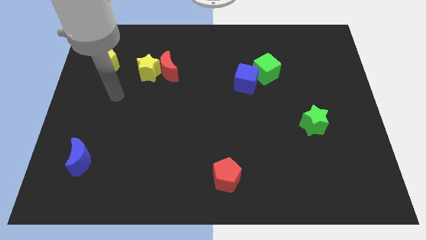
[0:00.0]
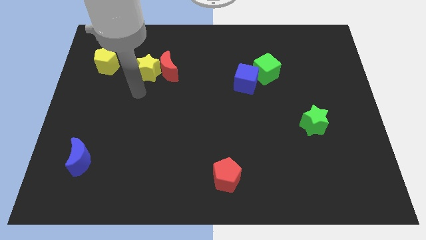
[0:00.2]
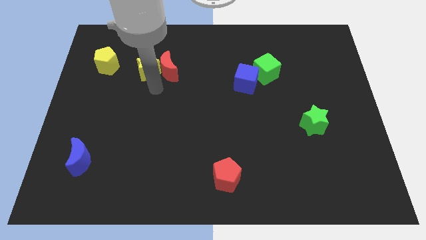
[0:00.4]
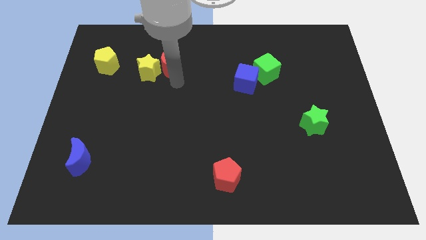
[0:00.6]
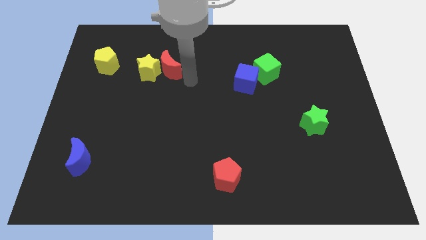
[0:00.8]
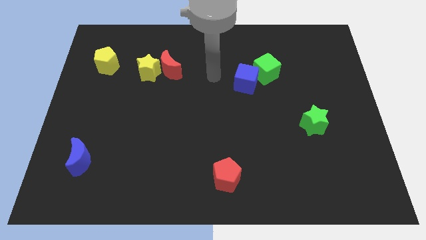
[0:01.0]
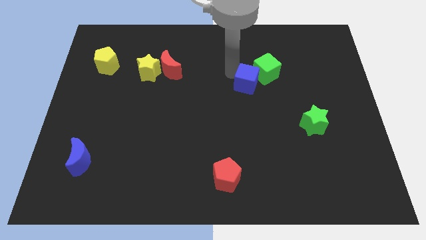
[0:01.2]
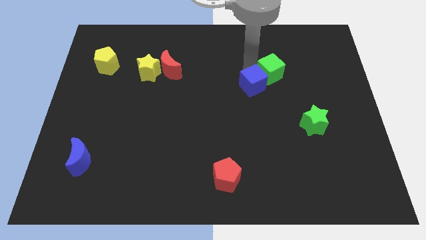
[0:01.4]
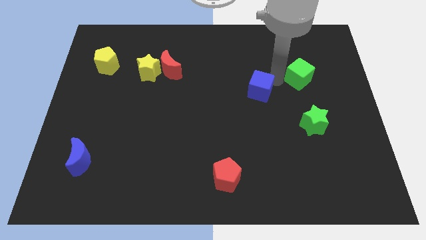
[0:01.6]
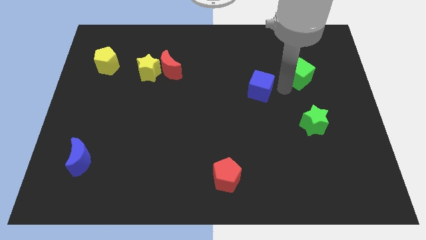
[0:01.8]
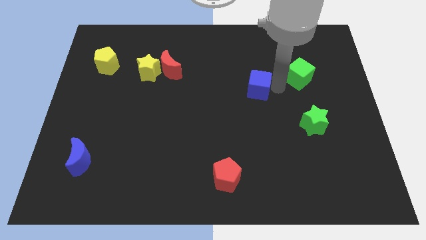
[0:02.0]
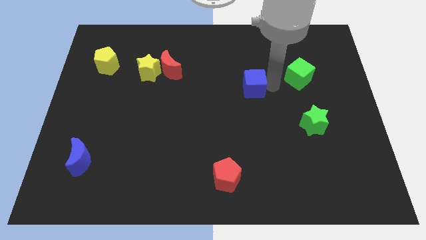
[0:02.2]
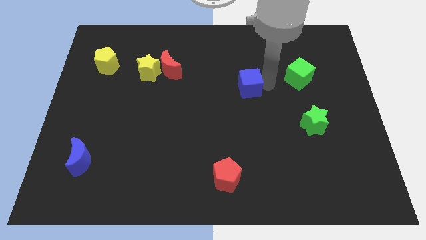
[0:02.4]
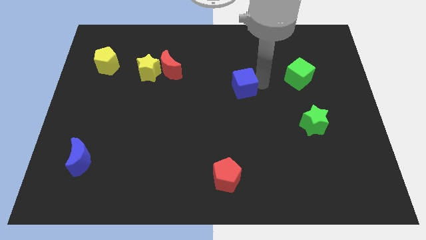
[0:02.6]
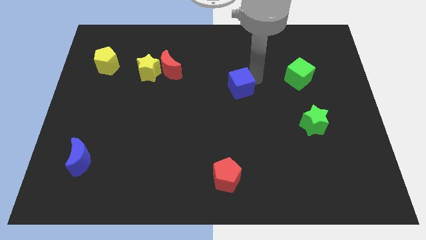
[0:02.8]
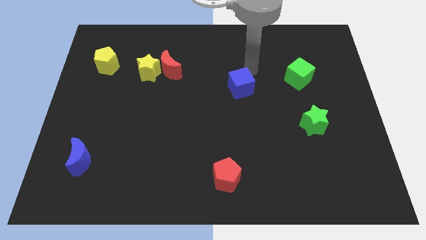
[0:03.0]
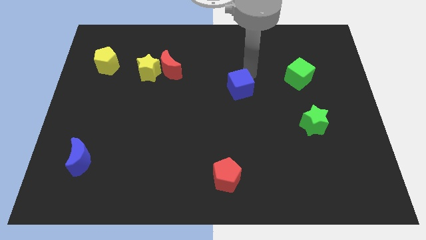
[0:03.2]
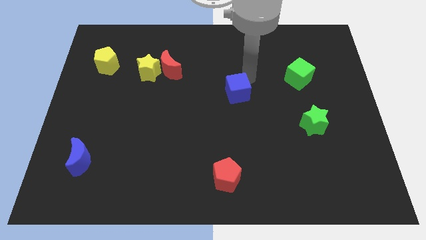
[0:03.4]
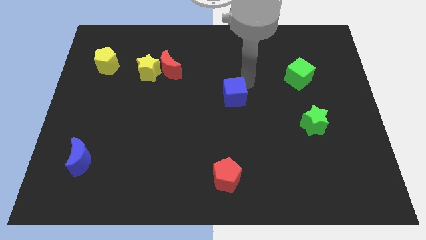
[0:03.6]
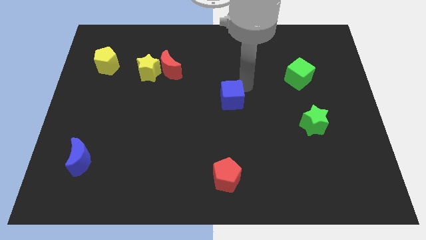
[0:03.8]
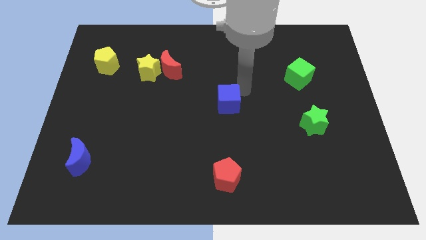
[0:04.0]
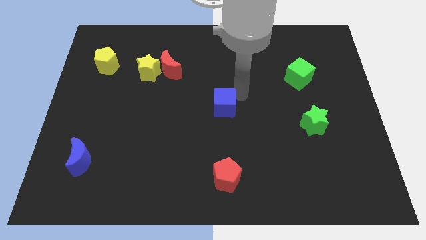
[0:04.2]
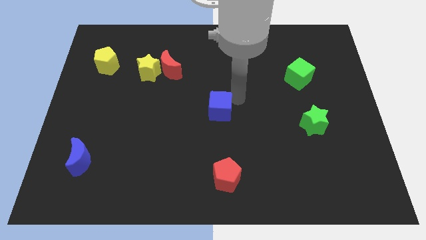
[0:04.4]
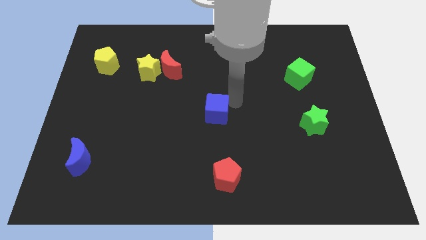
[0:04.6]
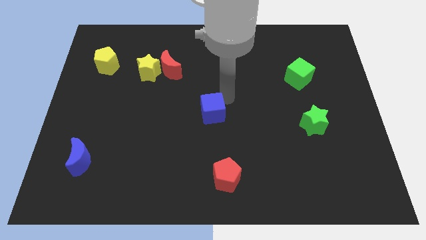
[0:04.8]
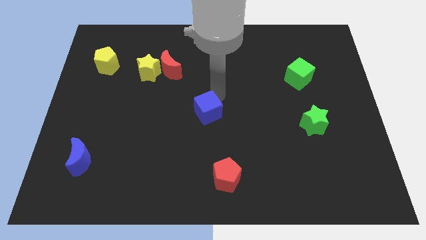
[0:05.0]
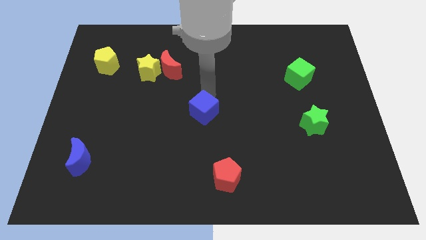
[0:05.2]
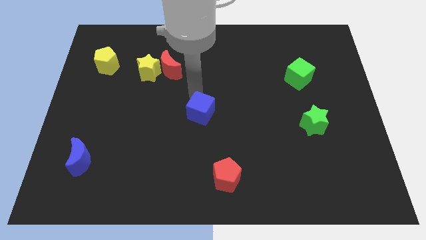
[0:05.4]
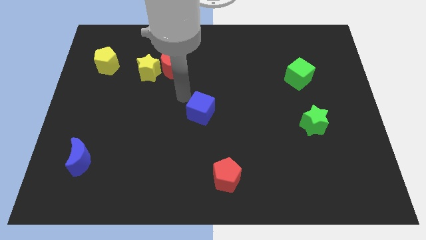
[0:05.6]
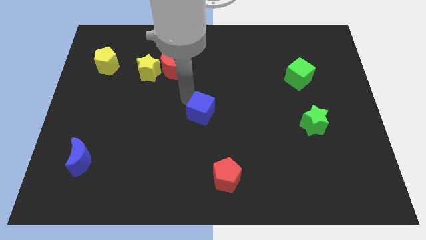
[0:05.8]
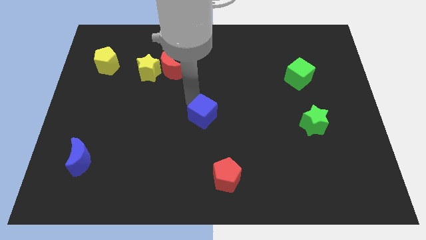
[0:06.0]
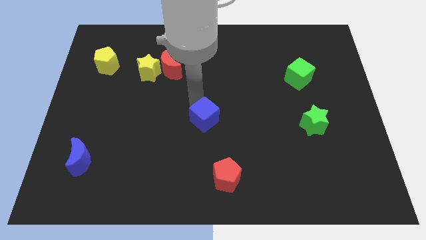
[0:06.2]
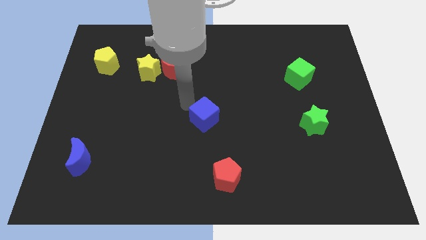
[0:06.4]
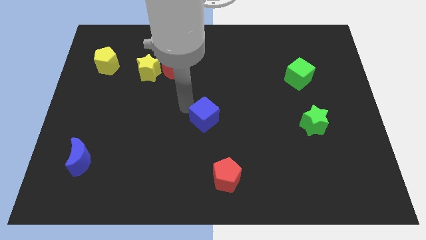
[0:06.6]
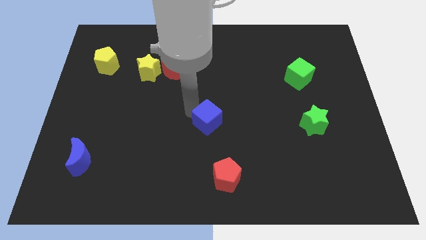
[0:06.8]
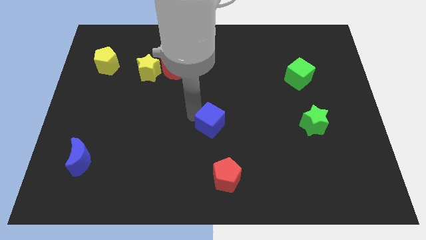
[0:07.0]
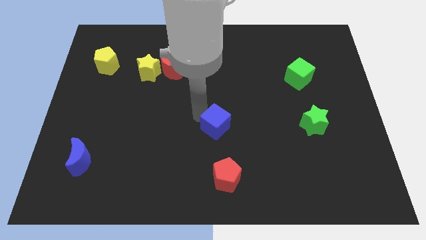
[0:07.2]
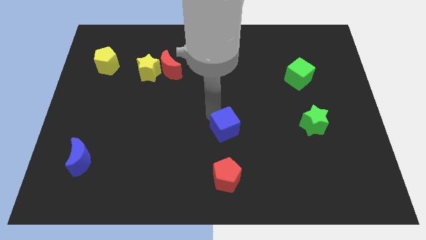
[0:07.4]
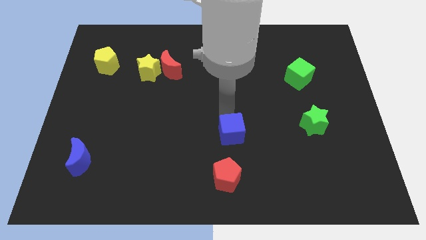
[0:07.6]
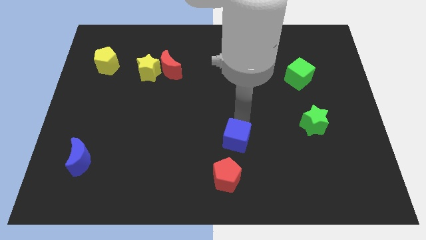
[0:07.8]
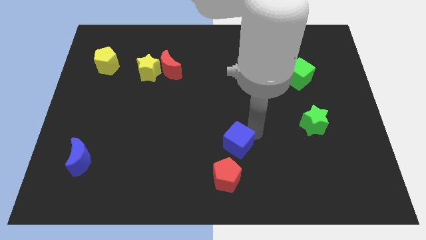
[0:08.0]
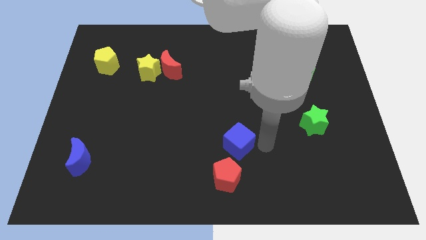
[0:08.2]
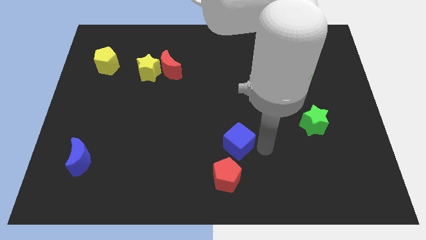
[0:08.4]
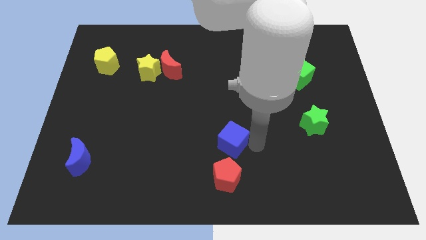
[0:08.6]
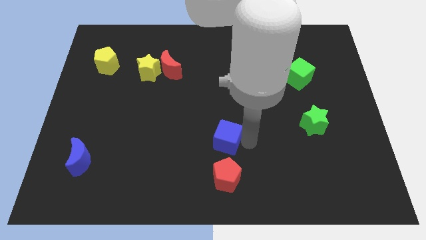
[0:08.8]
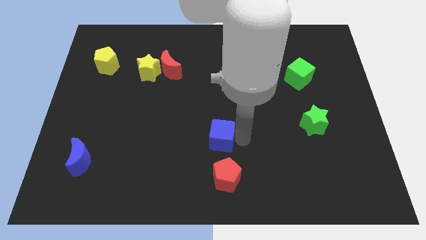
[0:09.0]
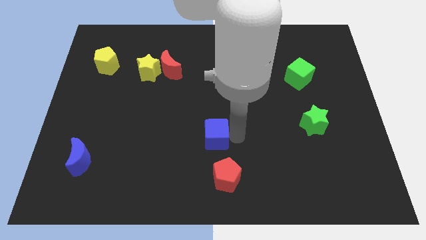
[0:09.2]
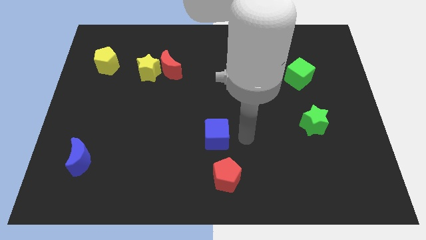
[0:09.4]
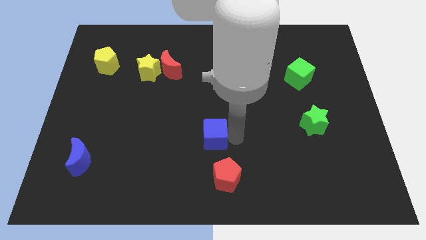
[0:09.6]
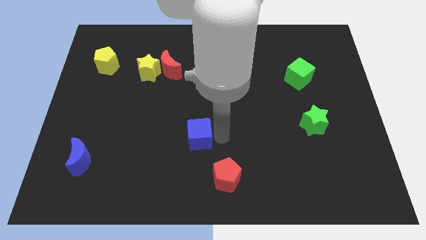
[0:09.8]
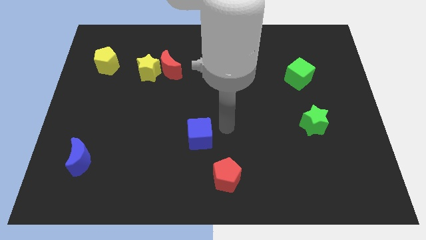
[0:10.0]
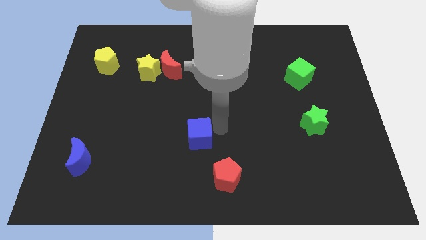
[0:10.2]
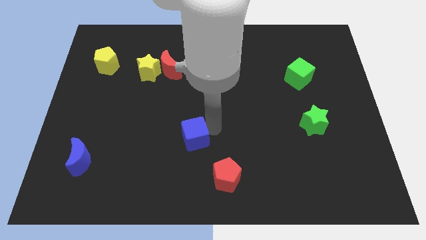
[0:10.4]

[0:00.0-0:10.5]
push the blue cube downwards and to the left

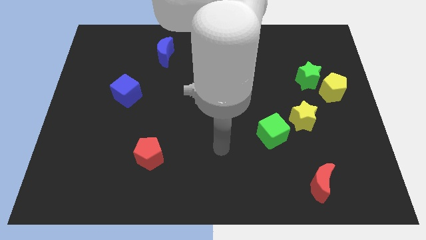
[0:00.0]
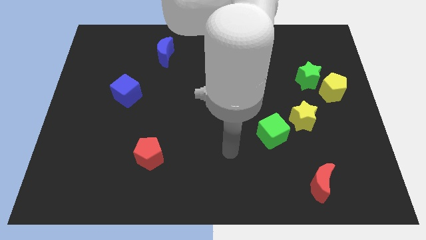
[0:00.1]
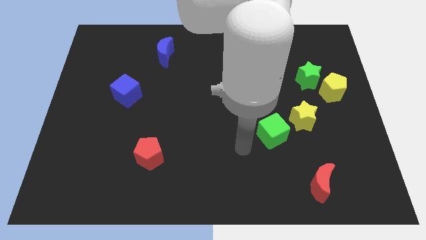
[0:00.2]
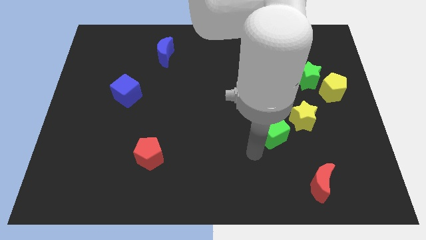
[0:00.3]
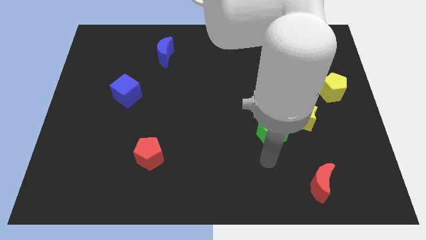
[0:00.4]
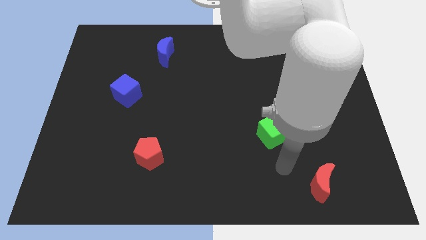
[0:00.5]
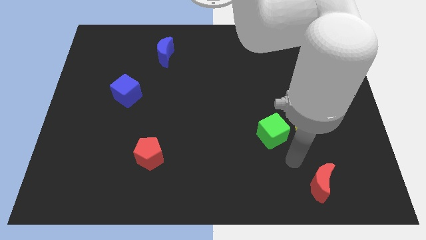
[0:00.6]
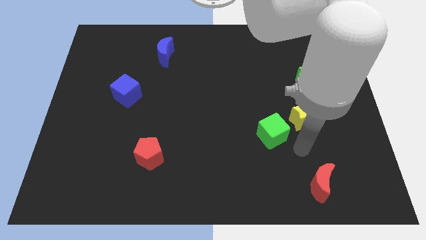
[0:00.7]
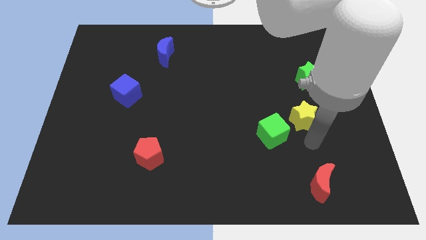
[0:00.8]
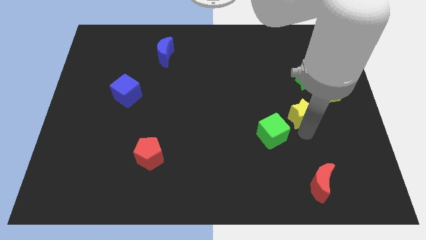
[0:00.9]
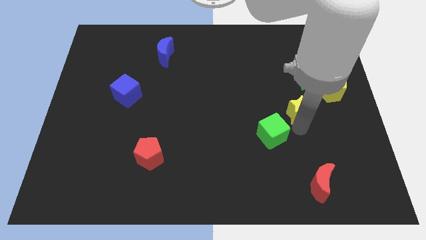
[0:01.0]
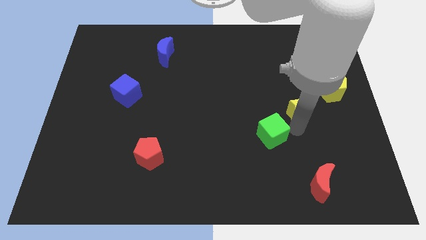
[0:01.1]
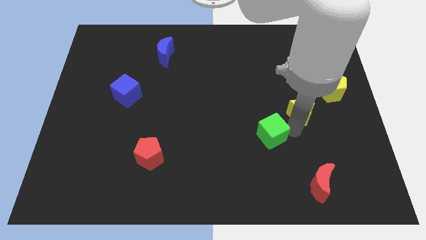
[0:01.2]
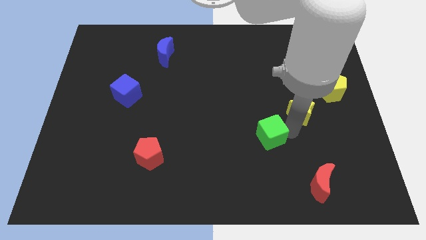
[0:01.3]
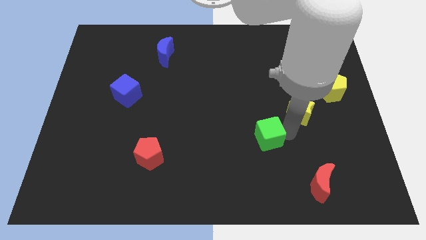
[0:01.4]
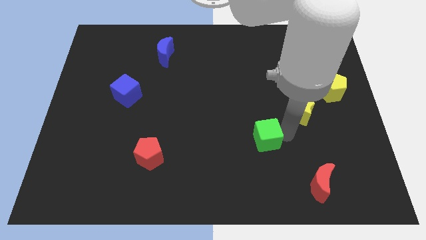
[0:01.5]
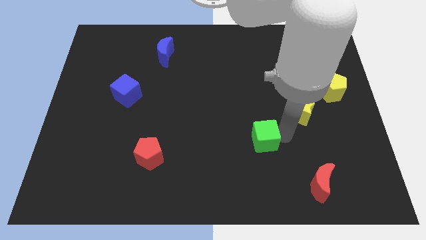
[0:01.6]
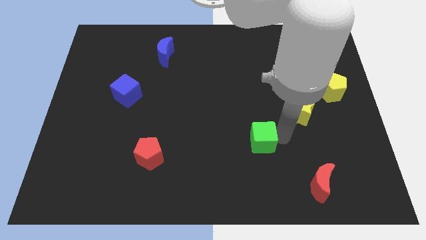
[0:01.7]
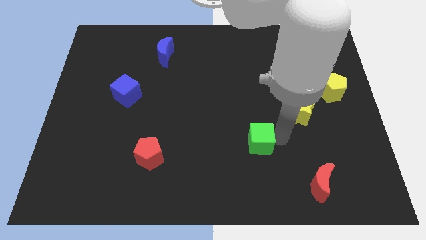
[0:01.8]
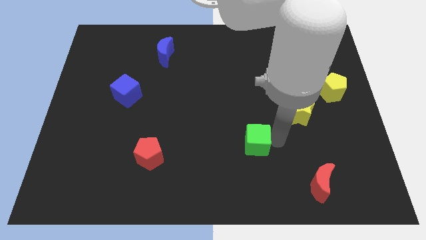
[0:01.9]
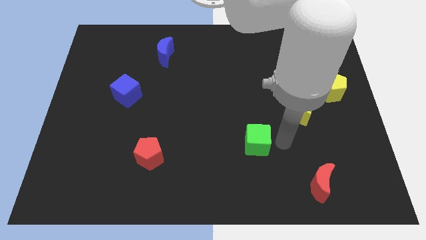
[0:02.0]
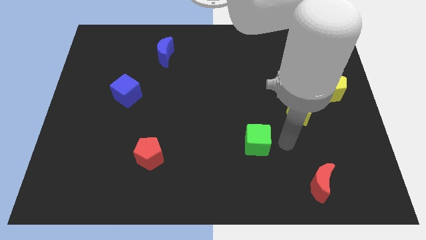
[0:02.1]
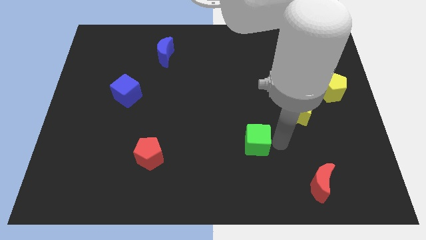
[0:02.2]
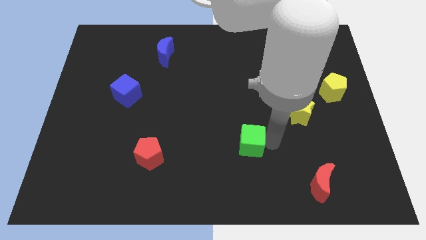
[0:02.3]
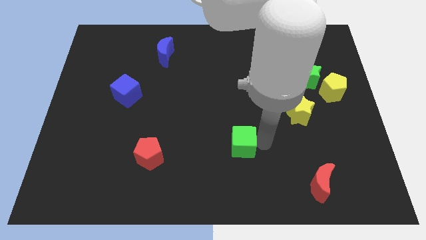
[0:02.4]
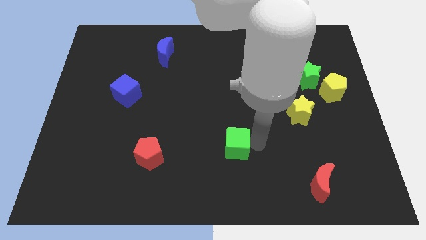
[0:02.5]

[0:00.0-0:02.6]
slightly move the green cube to the left
